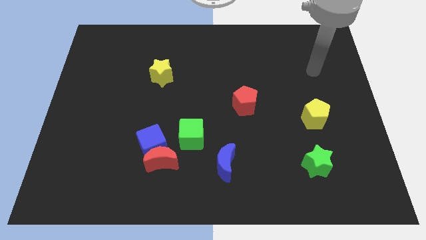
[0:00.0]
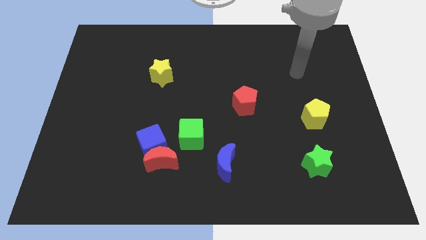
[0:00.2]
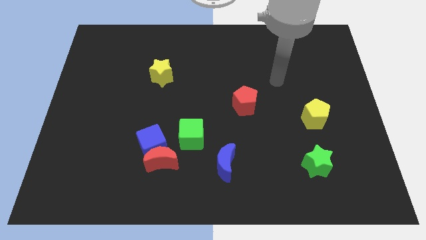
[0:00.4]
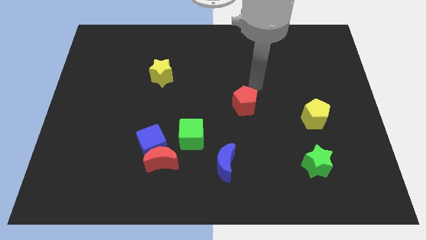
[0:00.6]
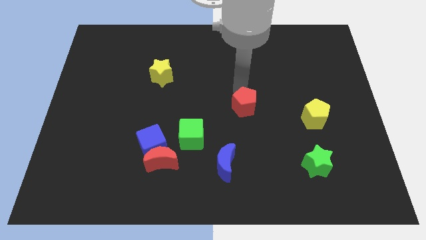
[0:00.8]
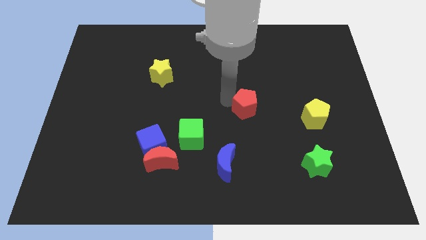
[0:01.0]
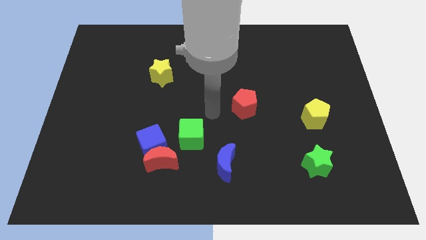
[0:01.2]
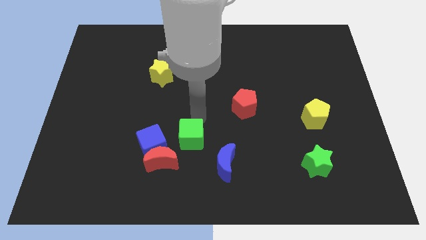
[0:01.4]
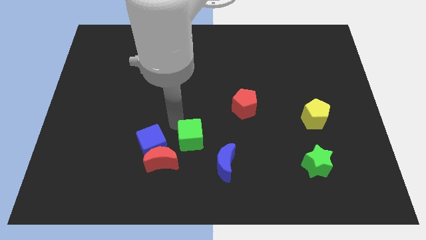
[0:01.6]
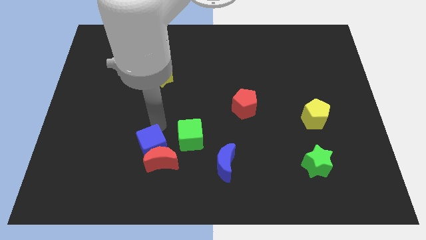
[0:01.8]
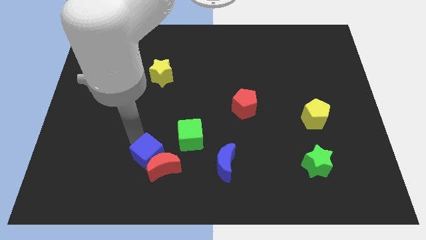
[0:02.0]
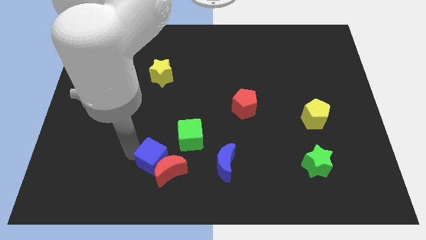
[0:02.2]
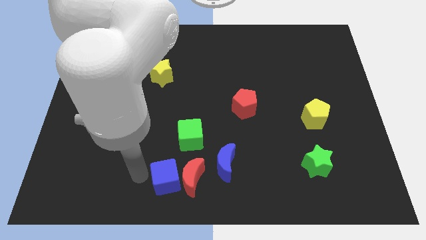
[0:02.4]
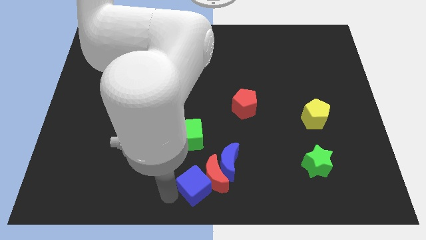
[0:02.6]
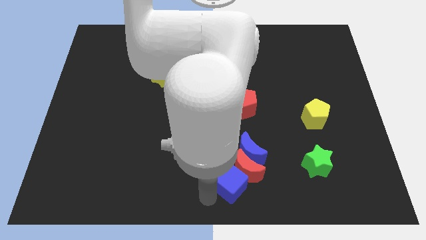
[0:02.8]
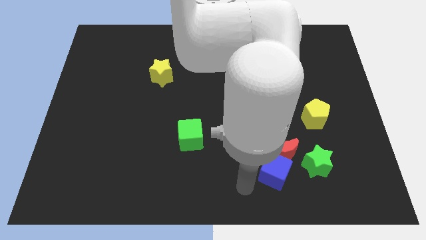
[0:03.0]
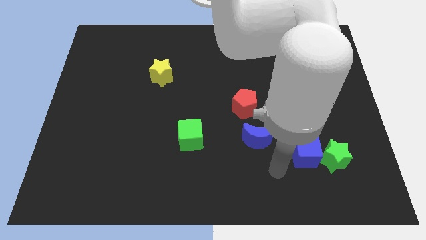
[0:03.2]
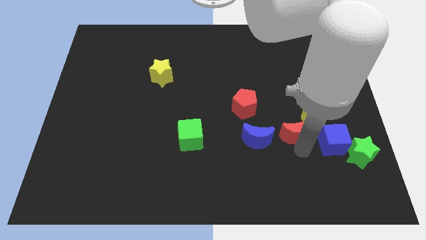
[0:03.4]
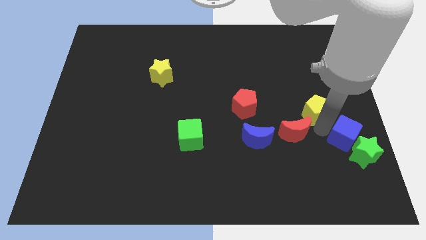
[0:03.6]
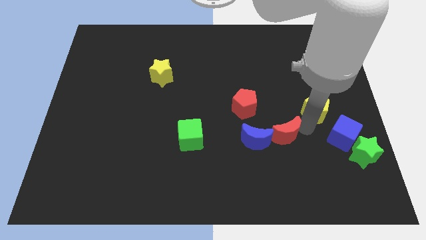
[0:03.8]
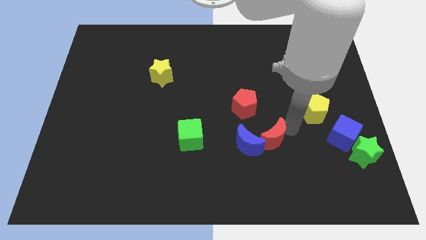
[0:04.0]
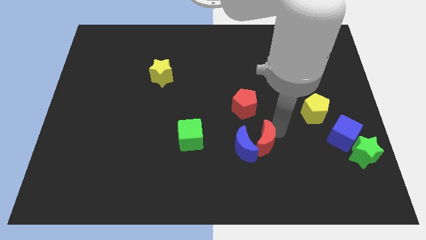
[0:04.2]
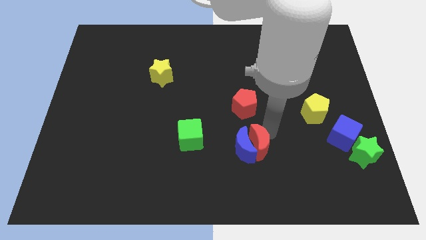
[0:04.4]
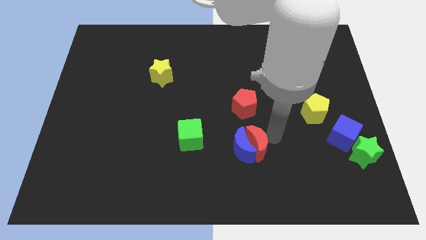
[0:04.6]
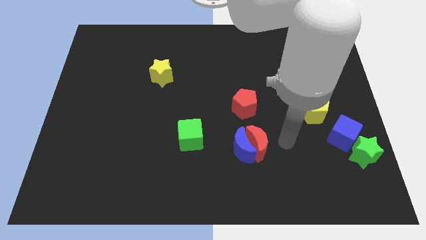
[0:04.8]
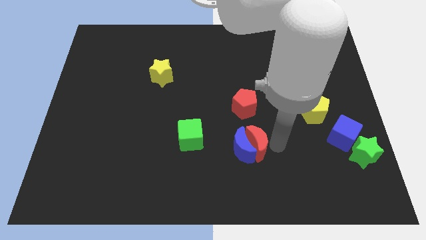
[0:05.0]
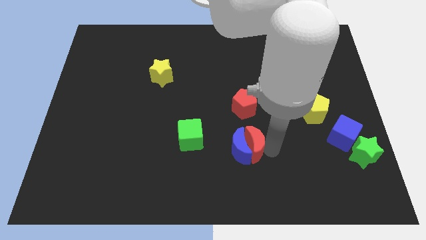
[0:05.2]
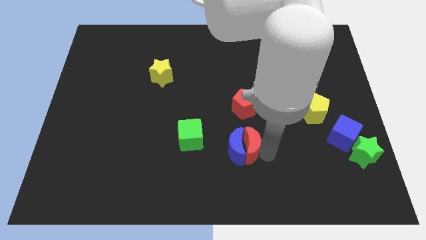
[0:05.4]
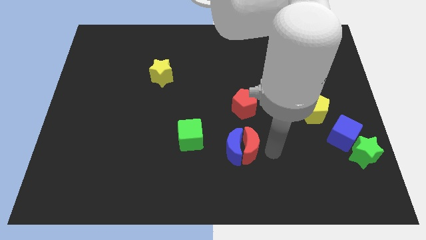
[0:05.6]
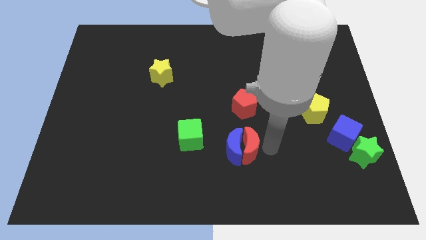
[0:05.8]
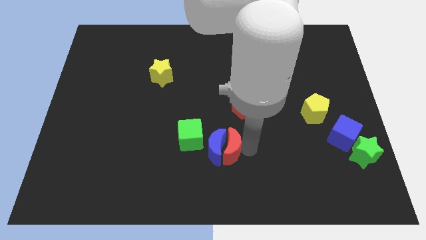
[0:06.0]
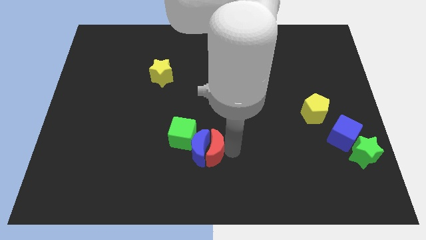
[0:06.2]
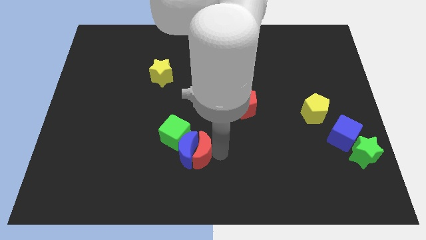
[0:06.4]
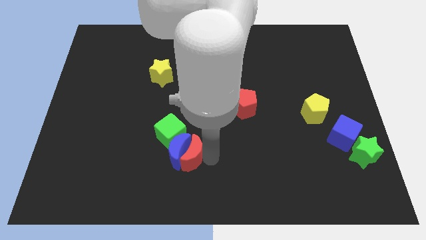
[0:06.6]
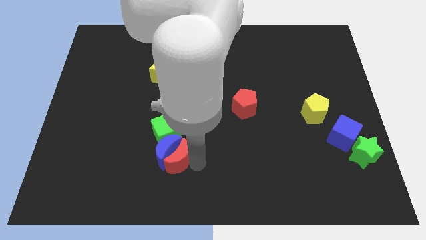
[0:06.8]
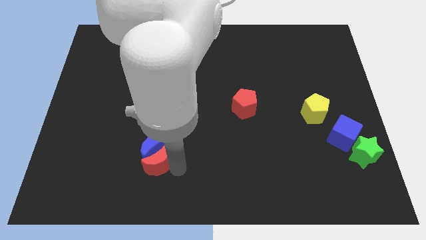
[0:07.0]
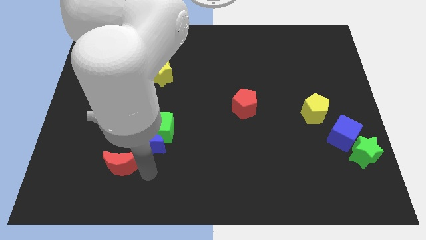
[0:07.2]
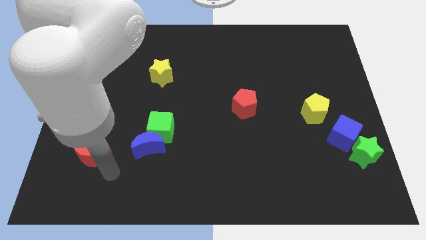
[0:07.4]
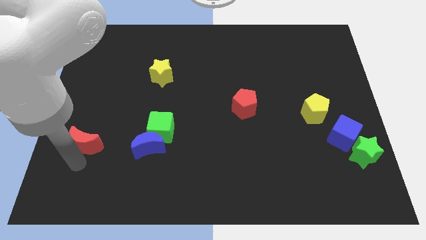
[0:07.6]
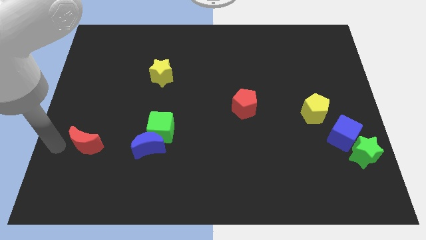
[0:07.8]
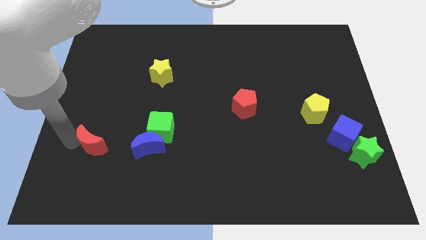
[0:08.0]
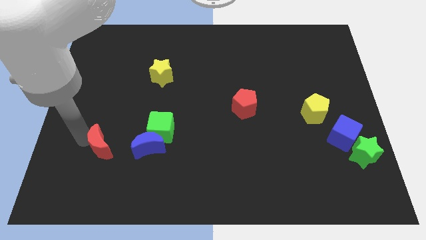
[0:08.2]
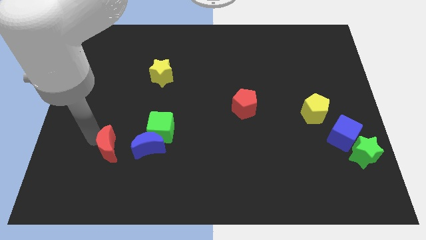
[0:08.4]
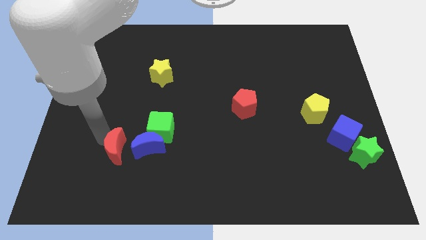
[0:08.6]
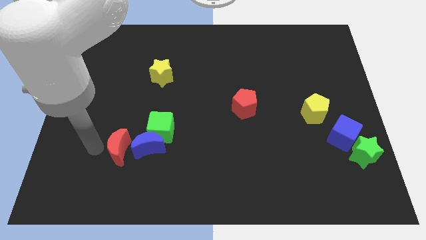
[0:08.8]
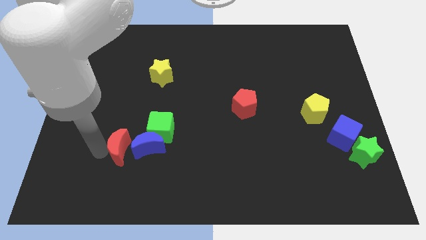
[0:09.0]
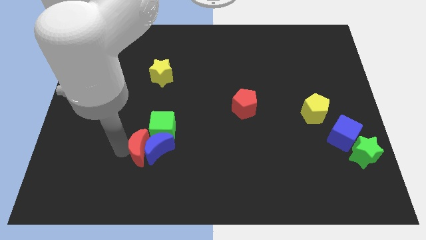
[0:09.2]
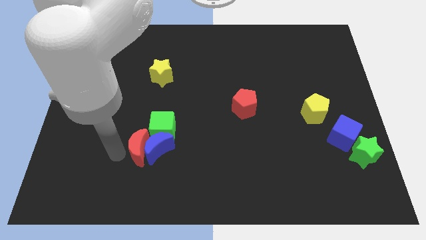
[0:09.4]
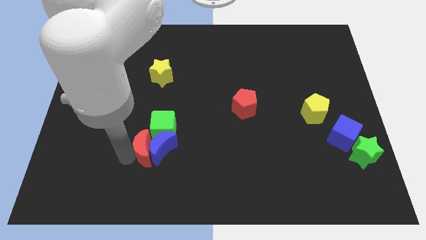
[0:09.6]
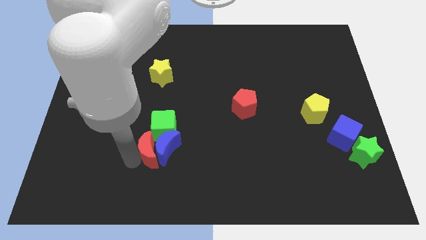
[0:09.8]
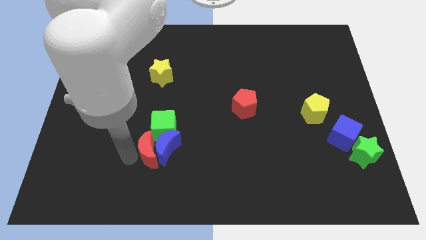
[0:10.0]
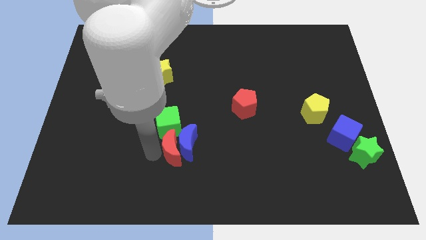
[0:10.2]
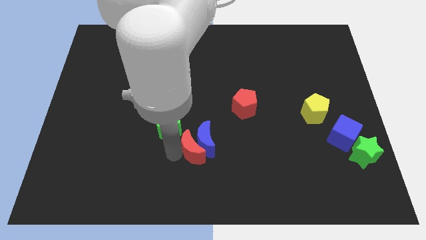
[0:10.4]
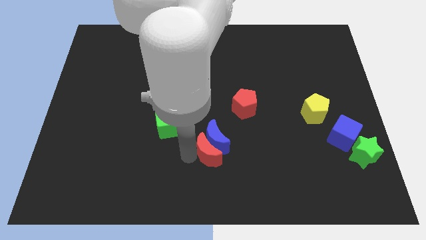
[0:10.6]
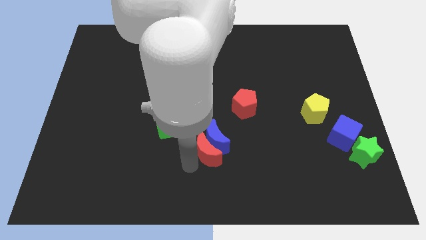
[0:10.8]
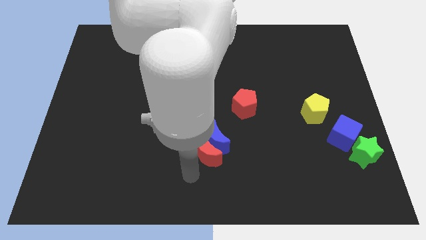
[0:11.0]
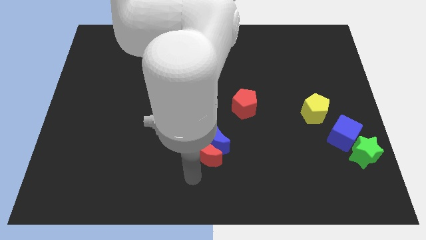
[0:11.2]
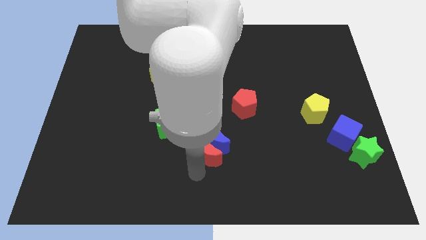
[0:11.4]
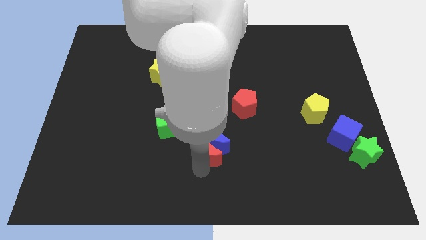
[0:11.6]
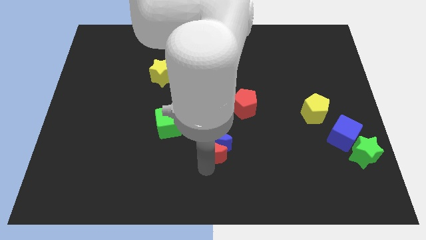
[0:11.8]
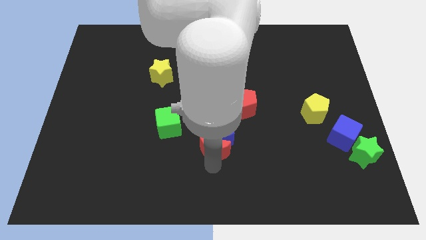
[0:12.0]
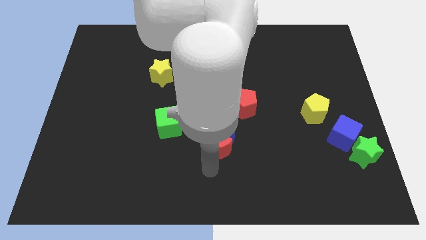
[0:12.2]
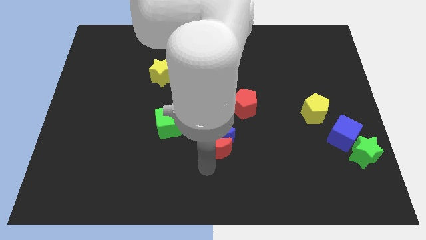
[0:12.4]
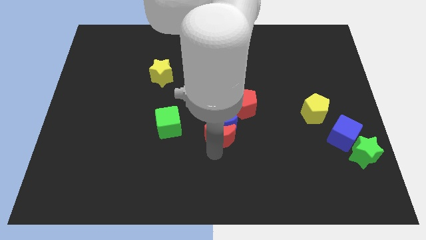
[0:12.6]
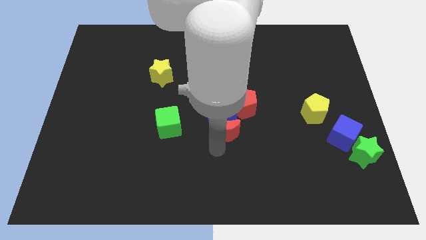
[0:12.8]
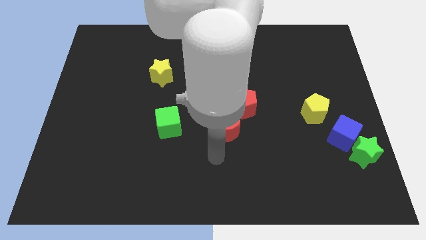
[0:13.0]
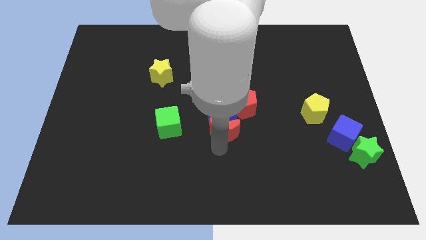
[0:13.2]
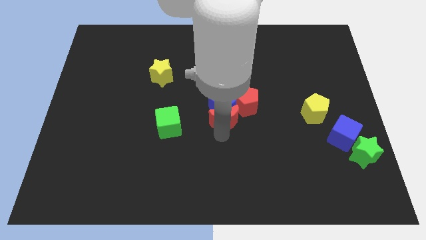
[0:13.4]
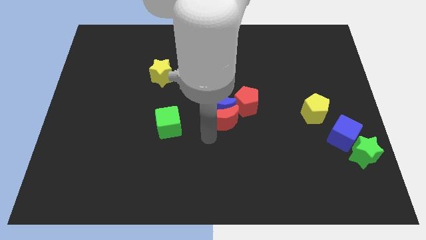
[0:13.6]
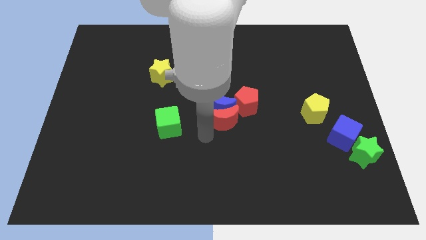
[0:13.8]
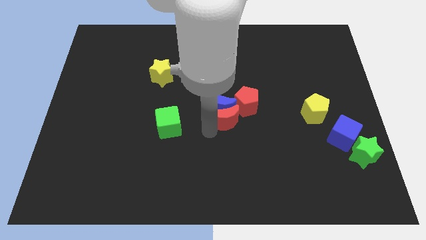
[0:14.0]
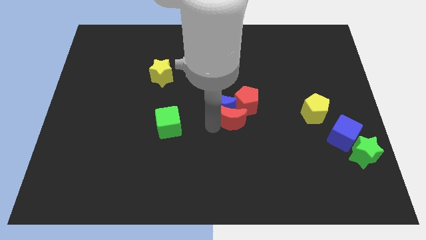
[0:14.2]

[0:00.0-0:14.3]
move the red moon next to the red pentagon
